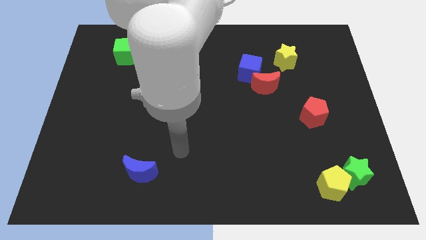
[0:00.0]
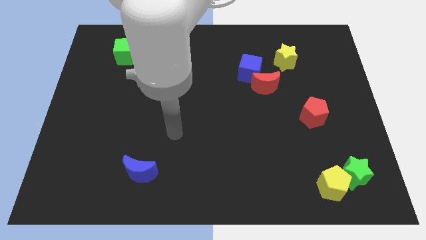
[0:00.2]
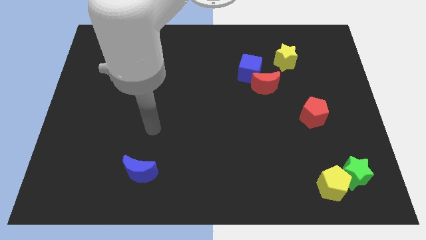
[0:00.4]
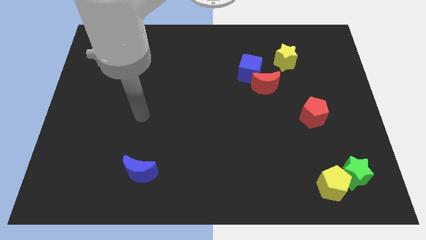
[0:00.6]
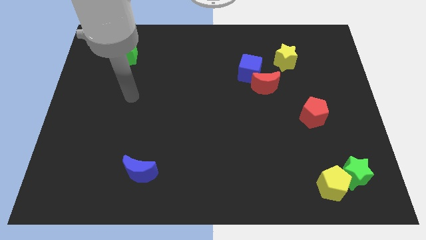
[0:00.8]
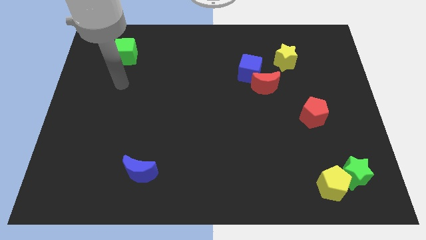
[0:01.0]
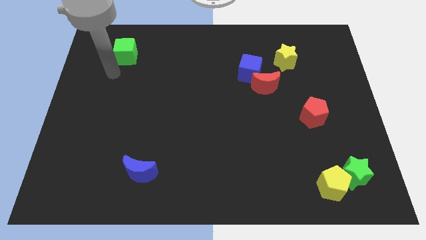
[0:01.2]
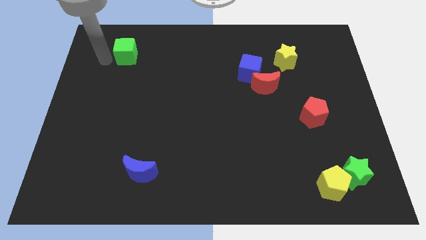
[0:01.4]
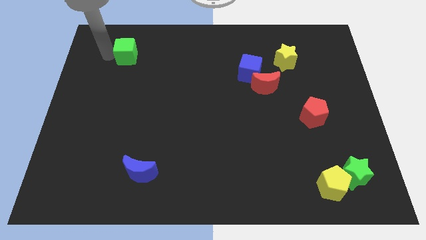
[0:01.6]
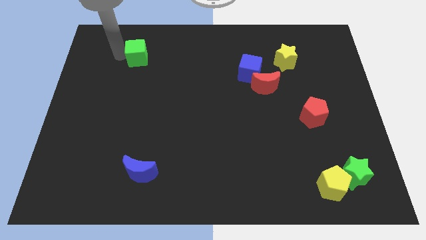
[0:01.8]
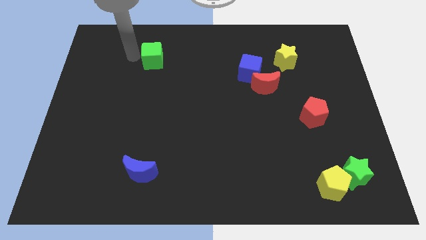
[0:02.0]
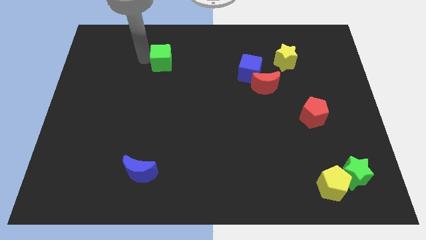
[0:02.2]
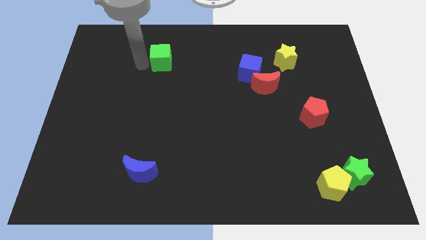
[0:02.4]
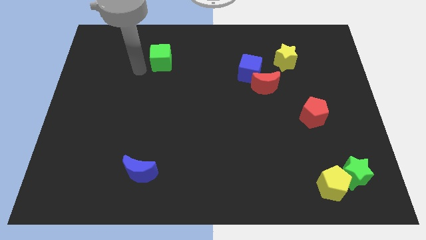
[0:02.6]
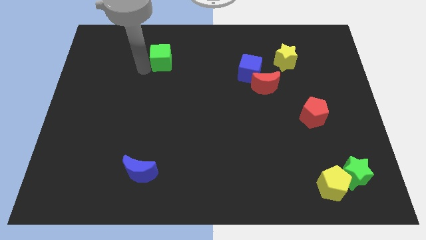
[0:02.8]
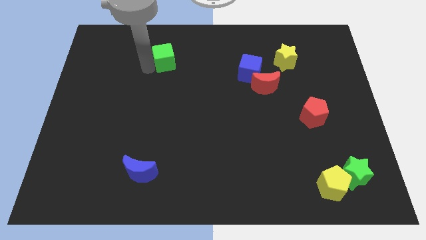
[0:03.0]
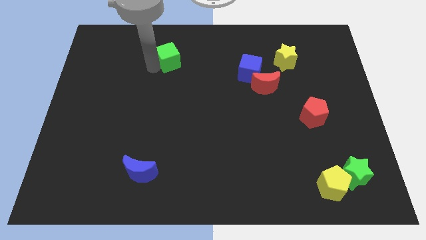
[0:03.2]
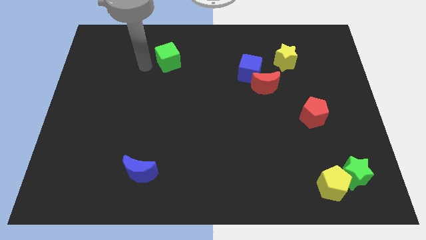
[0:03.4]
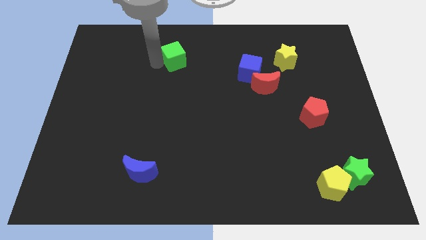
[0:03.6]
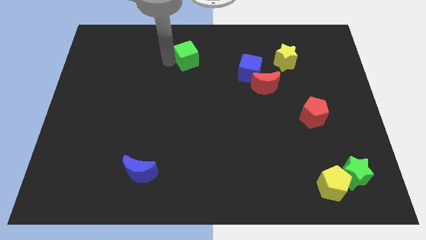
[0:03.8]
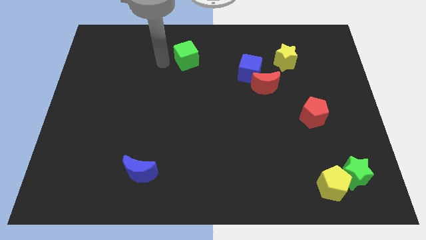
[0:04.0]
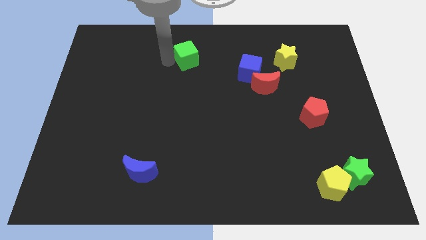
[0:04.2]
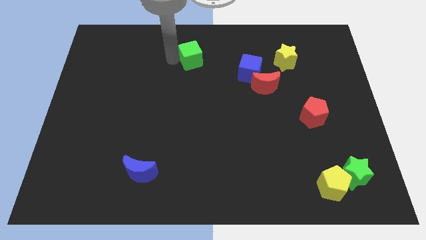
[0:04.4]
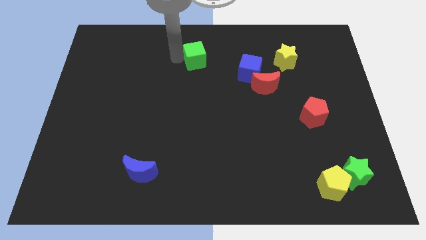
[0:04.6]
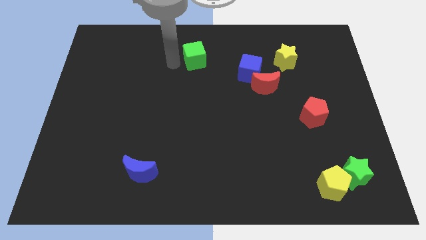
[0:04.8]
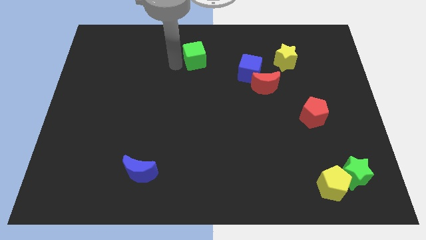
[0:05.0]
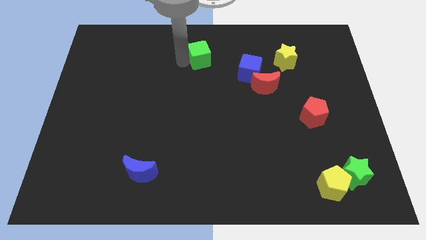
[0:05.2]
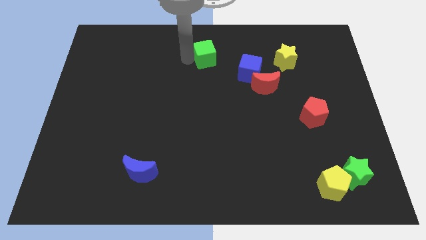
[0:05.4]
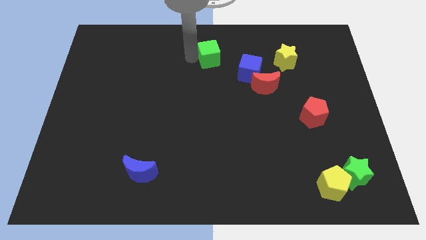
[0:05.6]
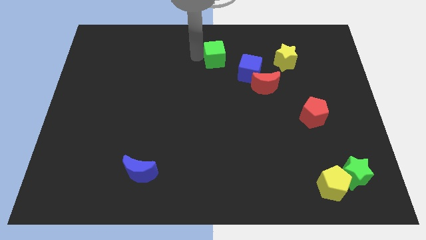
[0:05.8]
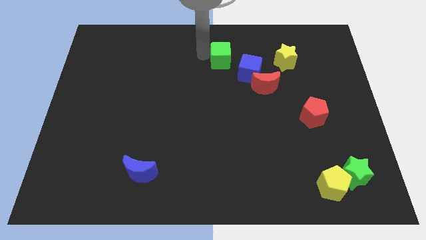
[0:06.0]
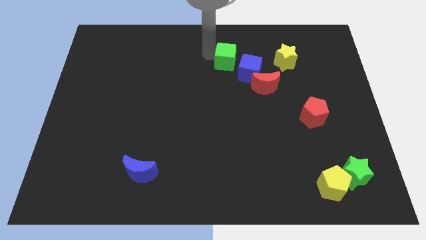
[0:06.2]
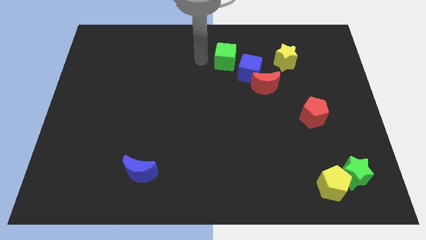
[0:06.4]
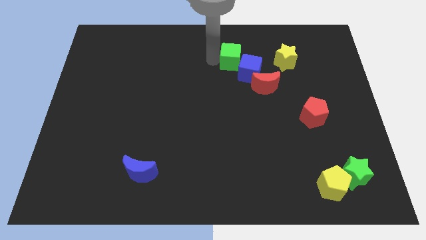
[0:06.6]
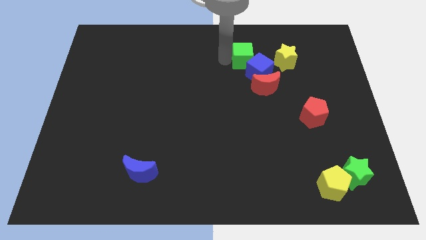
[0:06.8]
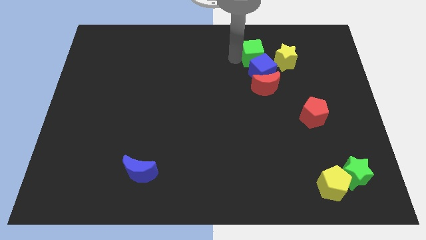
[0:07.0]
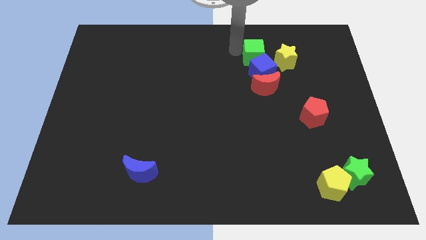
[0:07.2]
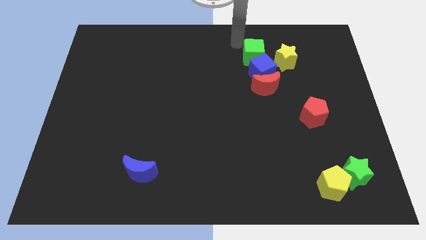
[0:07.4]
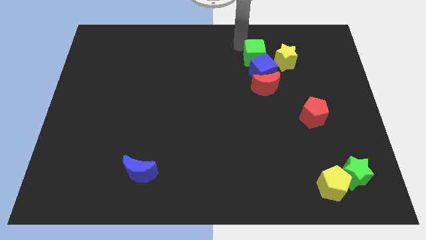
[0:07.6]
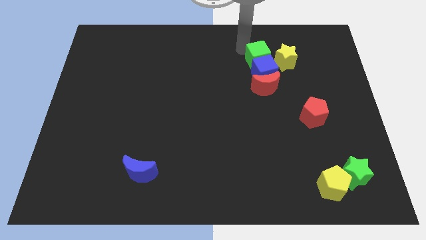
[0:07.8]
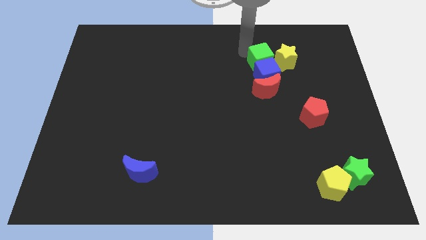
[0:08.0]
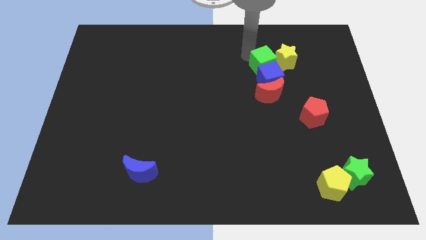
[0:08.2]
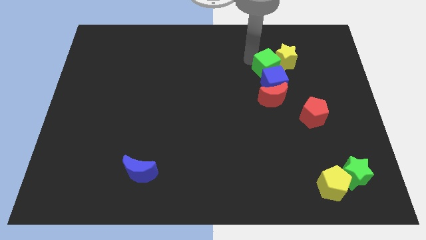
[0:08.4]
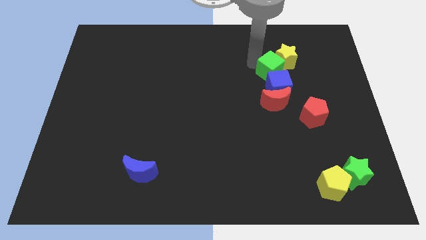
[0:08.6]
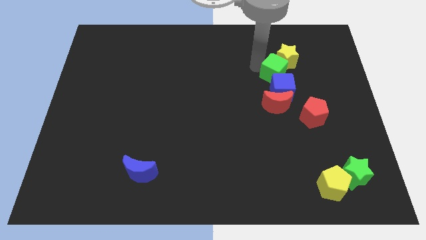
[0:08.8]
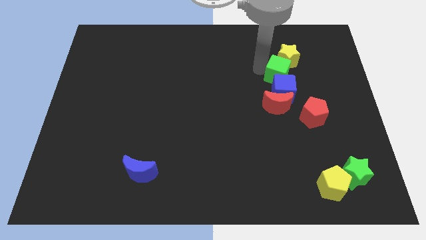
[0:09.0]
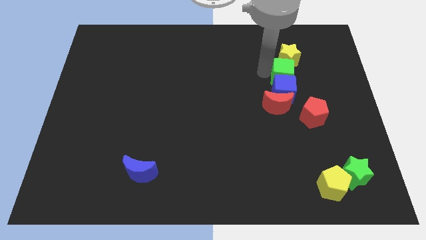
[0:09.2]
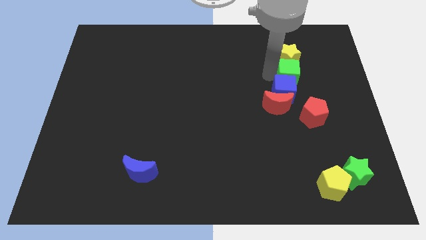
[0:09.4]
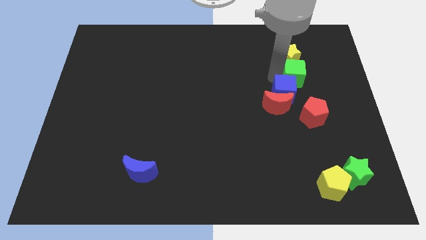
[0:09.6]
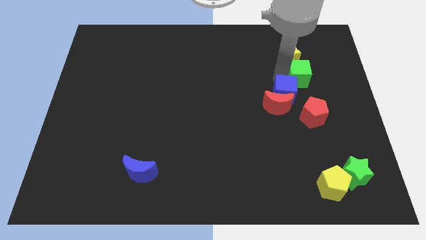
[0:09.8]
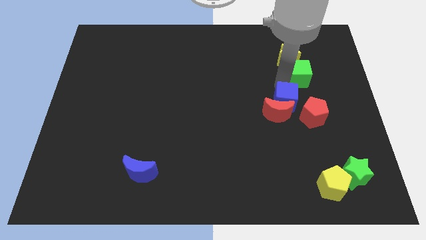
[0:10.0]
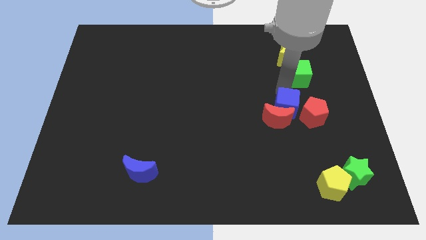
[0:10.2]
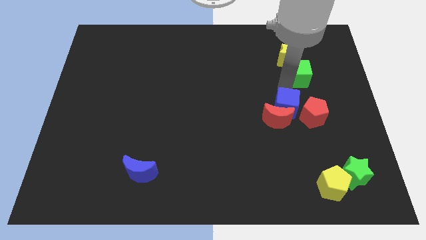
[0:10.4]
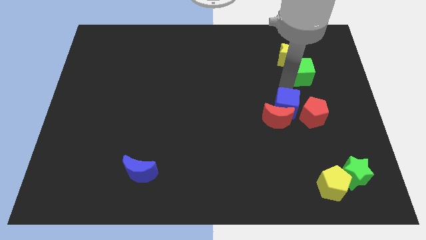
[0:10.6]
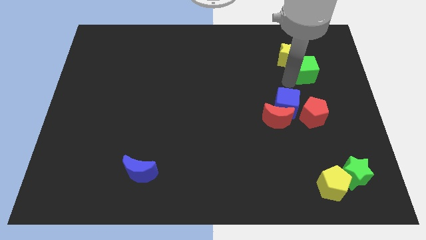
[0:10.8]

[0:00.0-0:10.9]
push the green cube just right of the yellow star

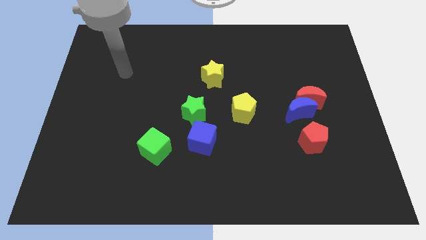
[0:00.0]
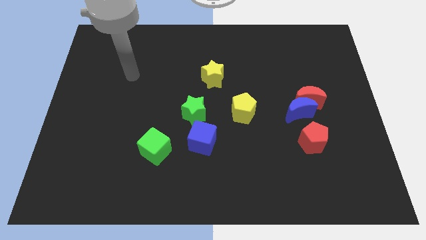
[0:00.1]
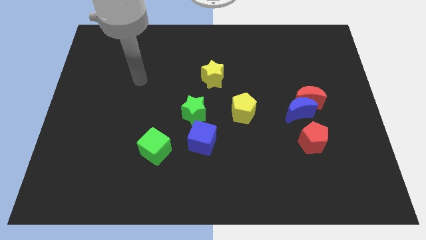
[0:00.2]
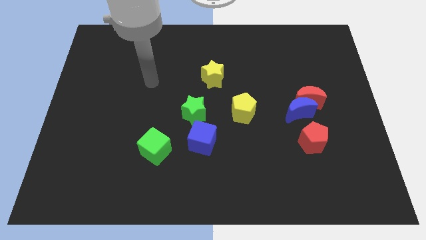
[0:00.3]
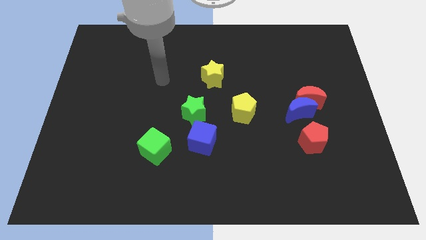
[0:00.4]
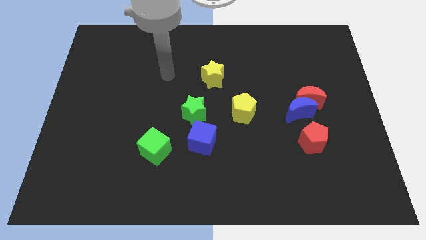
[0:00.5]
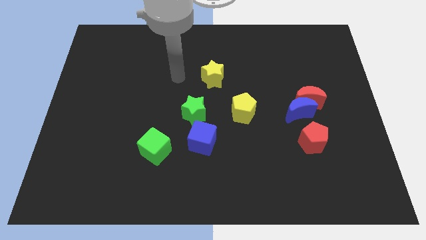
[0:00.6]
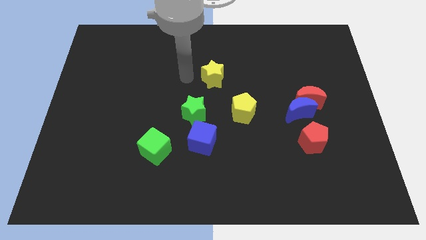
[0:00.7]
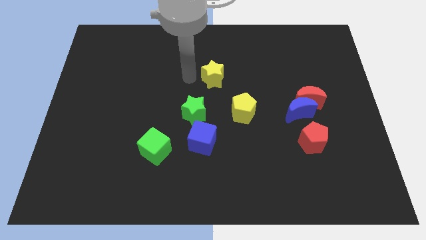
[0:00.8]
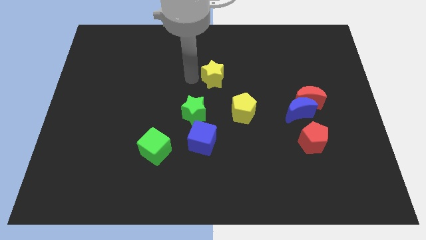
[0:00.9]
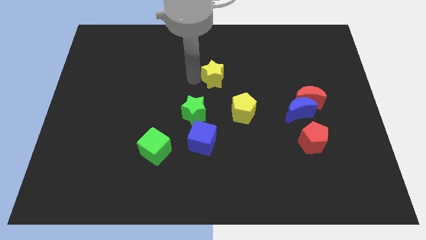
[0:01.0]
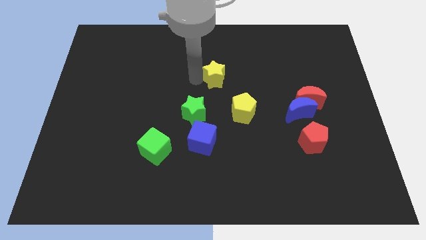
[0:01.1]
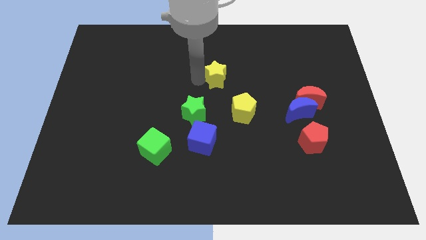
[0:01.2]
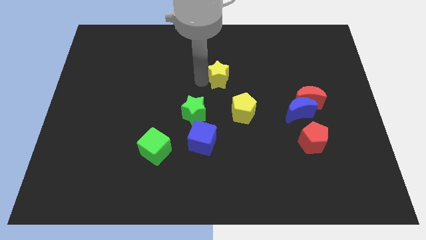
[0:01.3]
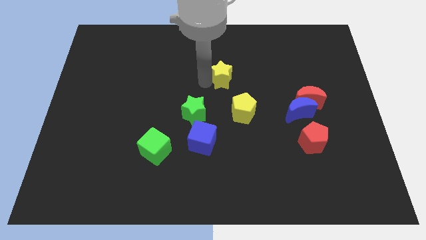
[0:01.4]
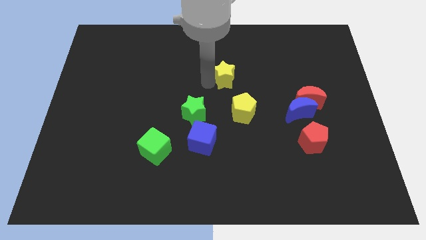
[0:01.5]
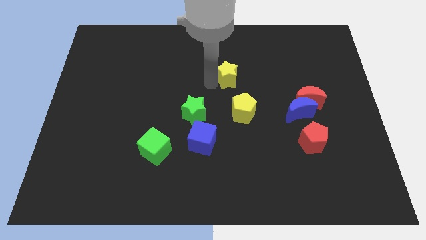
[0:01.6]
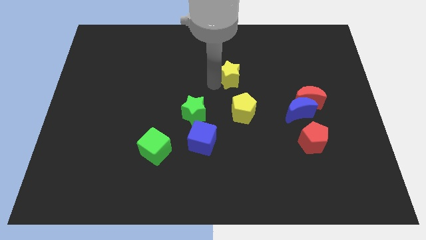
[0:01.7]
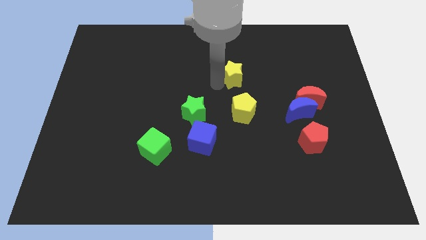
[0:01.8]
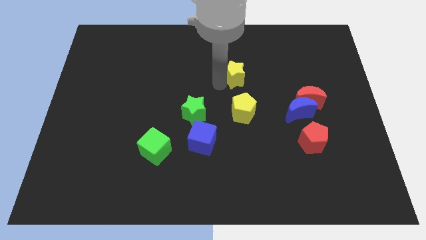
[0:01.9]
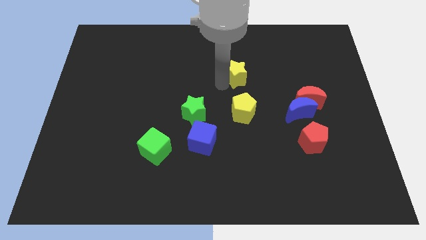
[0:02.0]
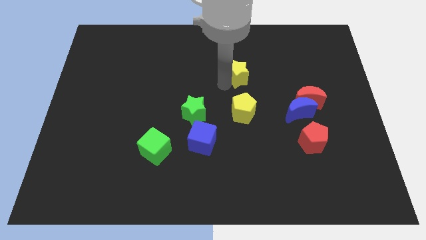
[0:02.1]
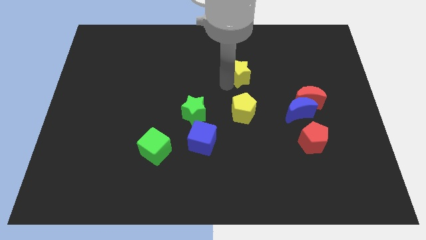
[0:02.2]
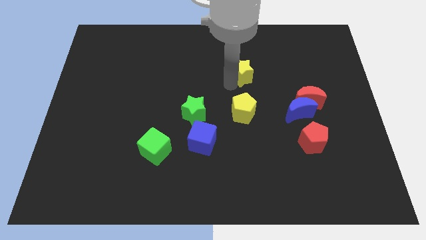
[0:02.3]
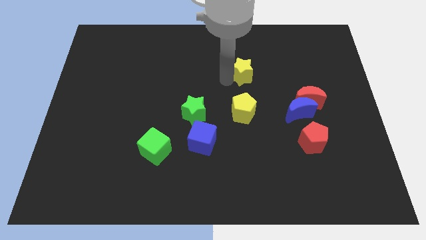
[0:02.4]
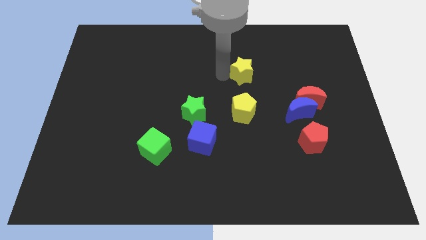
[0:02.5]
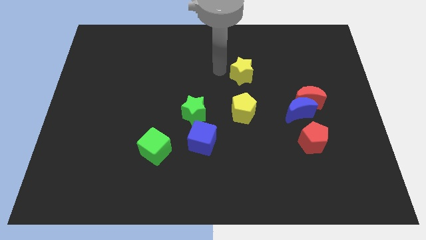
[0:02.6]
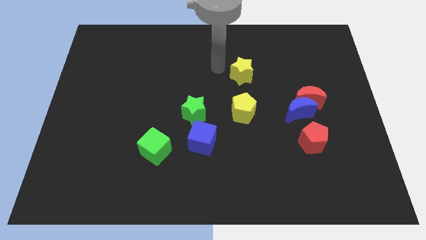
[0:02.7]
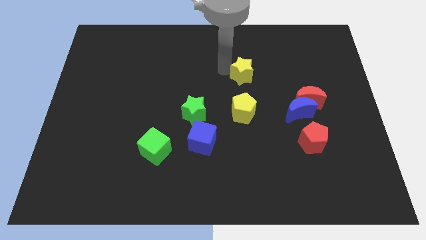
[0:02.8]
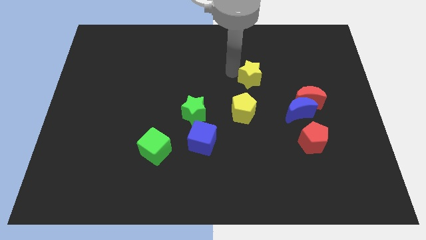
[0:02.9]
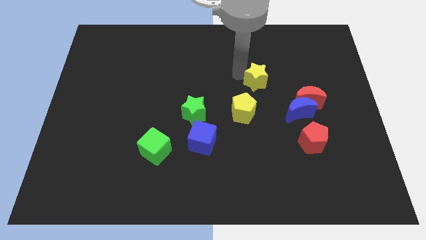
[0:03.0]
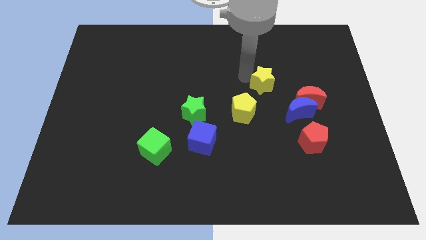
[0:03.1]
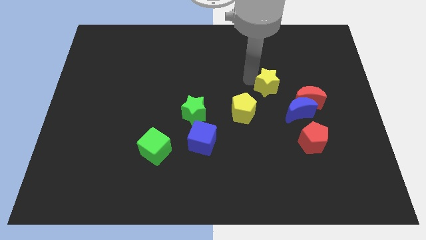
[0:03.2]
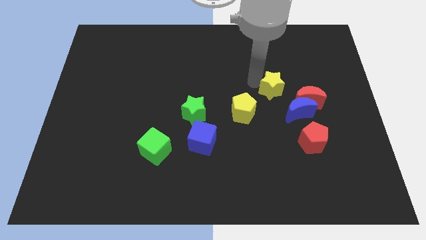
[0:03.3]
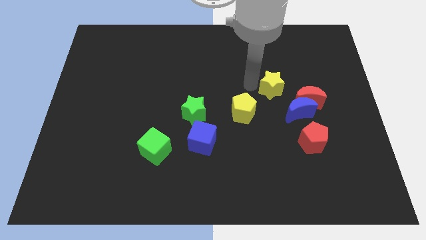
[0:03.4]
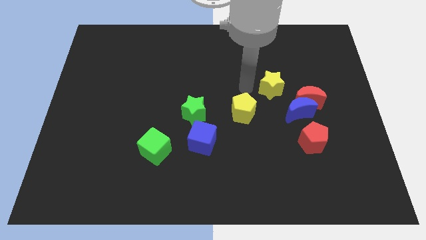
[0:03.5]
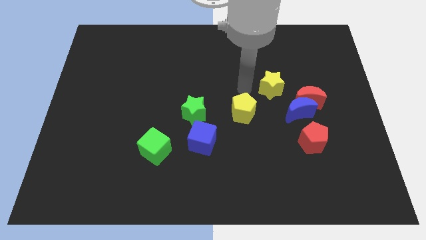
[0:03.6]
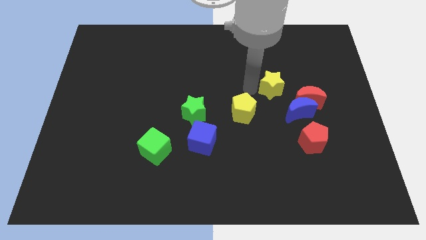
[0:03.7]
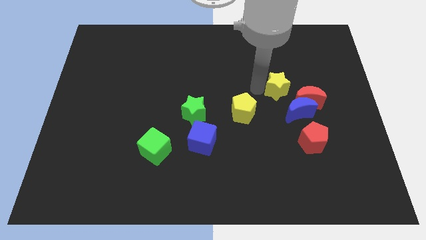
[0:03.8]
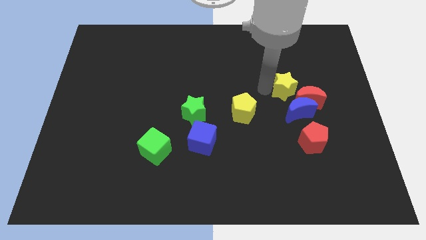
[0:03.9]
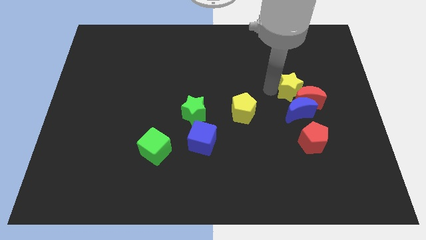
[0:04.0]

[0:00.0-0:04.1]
slide the yellow star above the red pentagon
